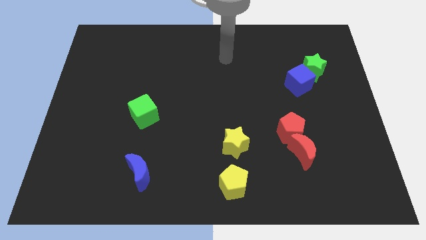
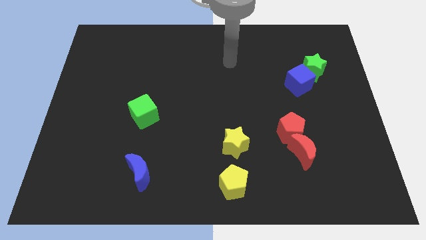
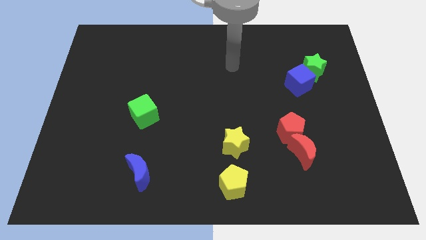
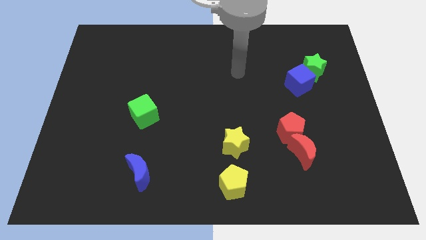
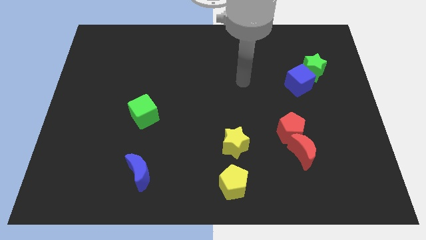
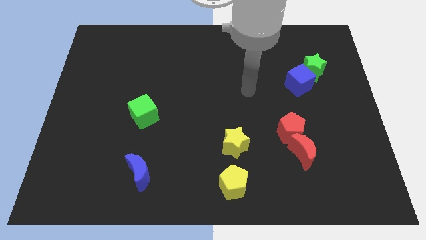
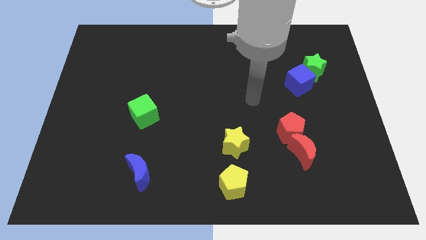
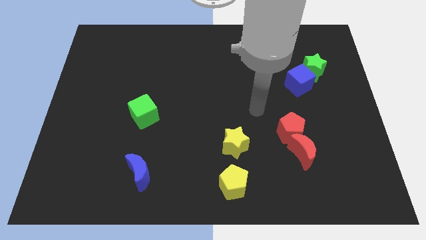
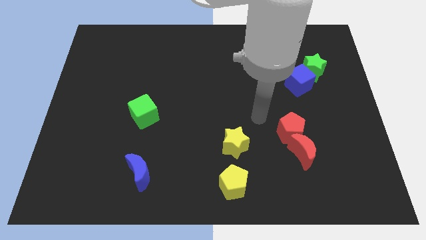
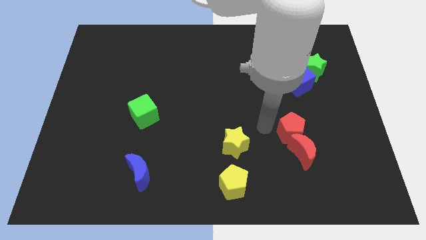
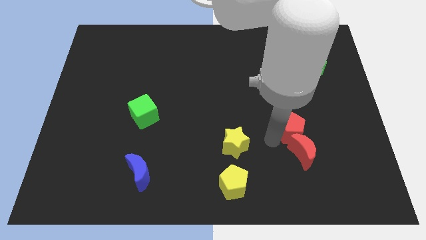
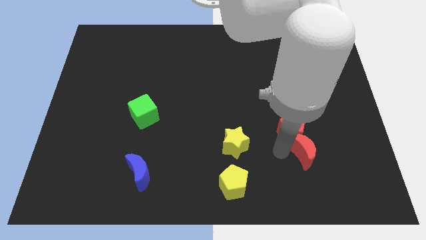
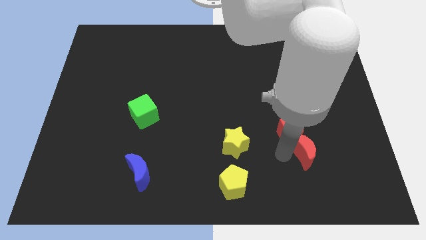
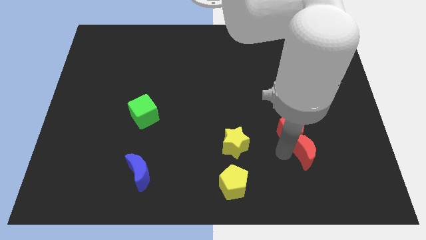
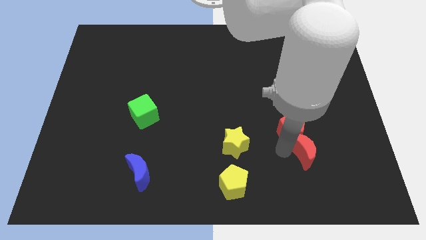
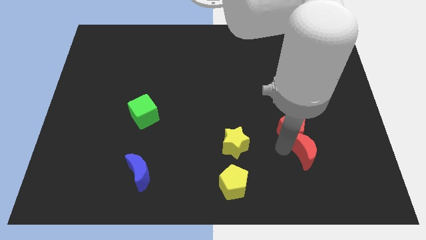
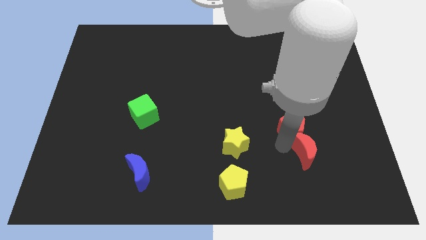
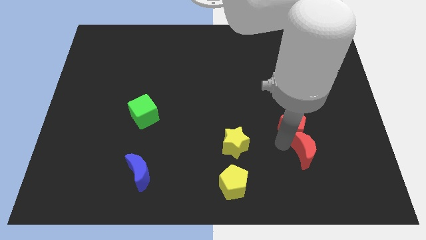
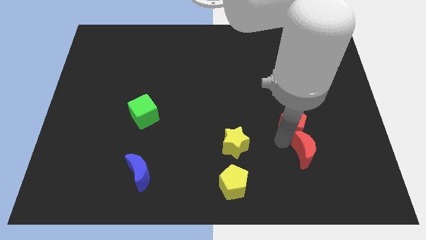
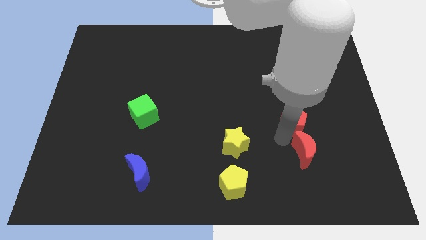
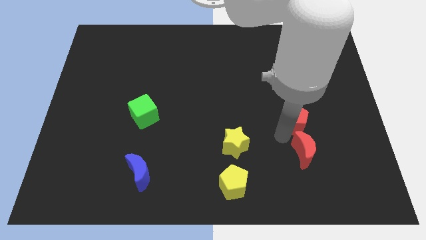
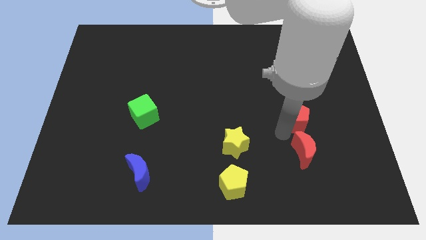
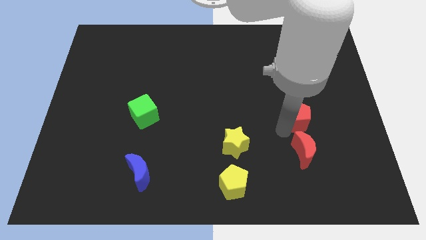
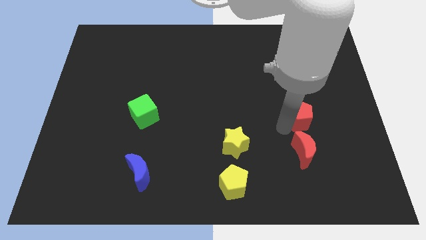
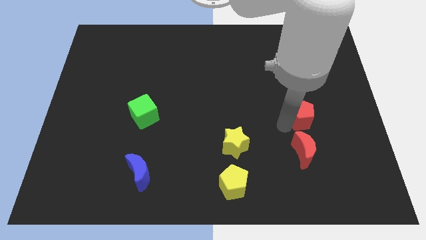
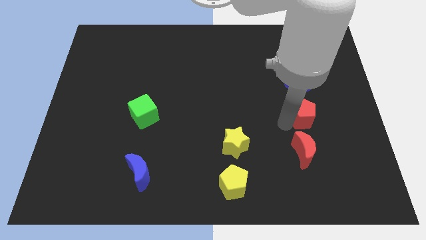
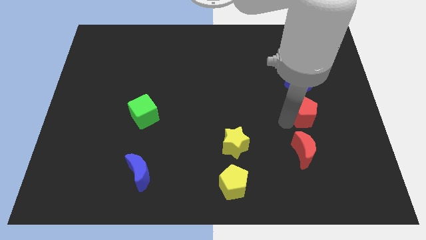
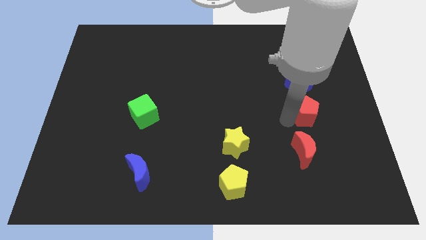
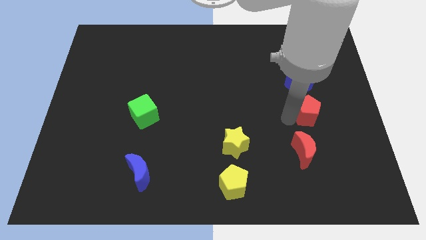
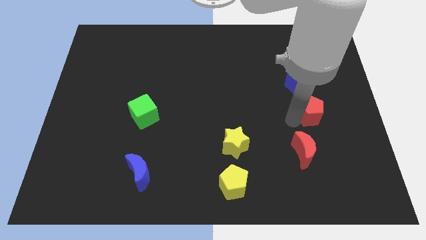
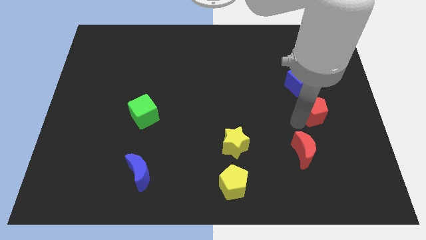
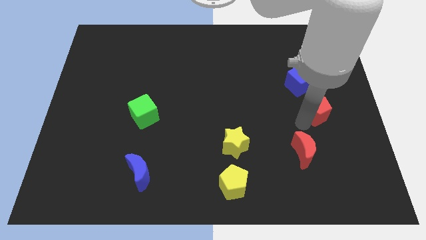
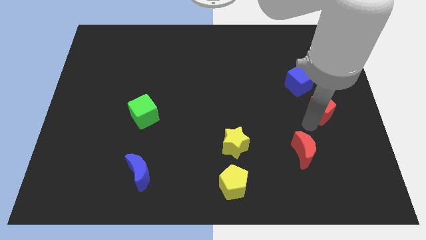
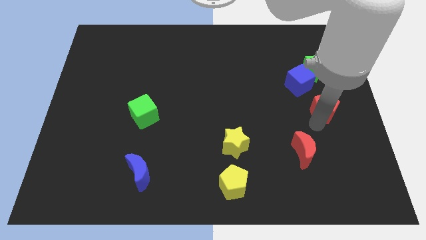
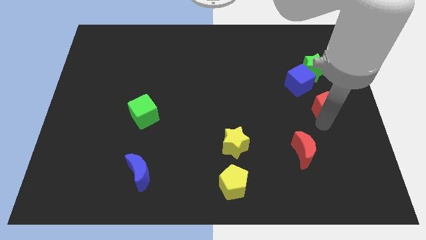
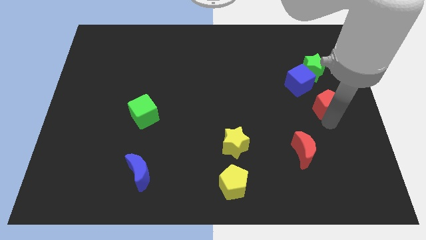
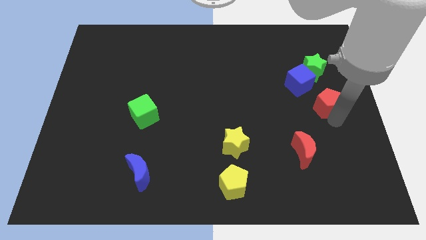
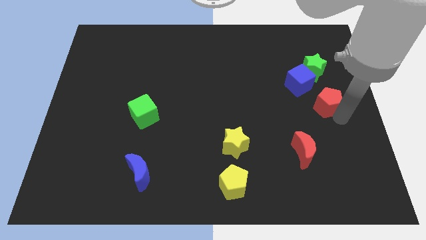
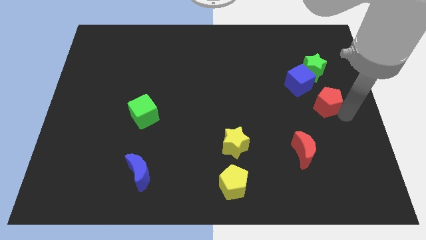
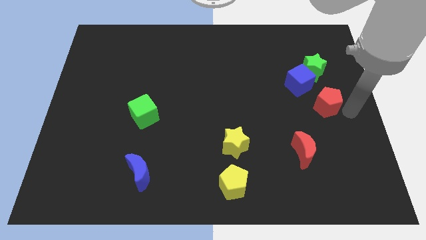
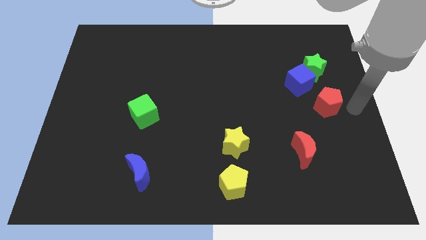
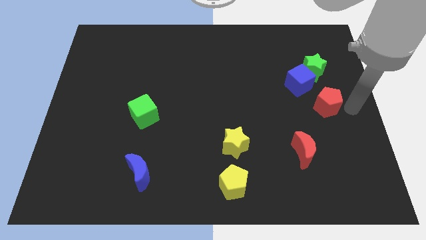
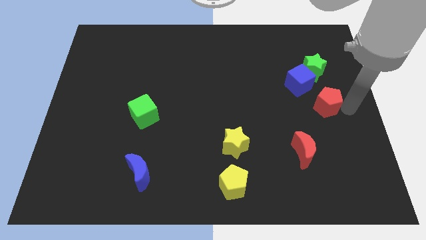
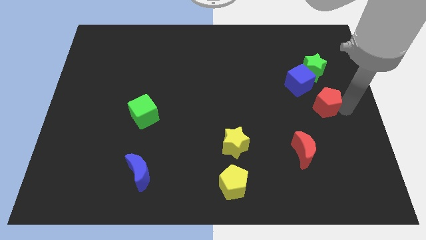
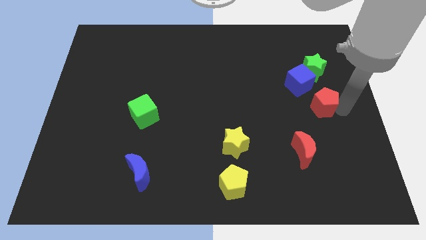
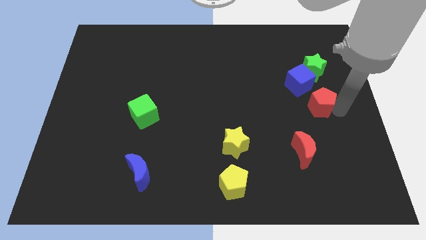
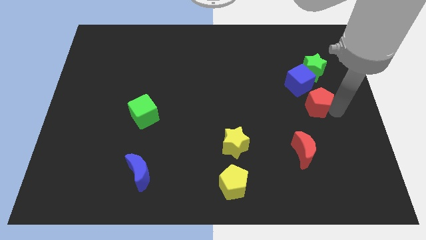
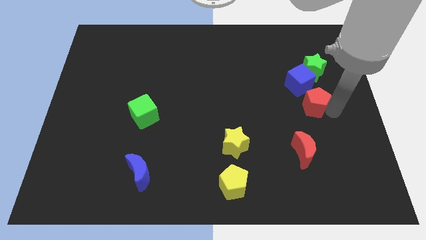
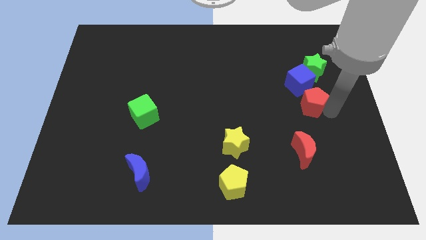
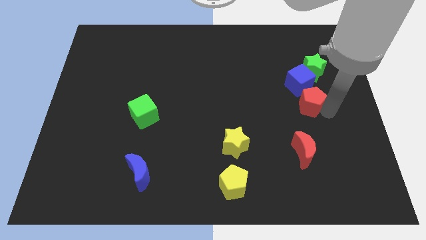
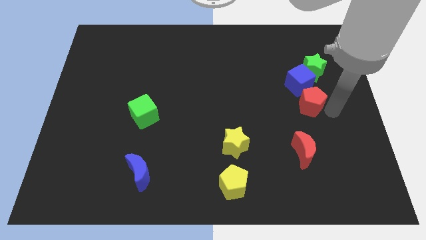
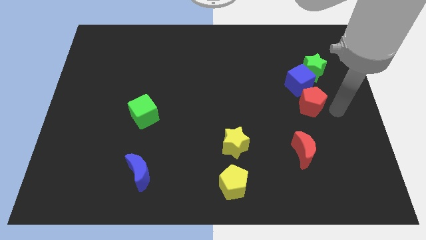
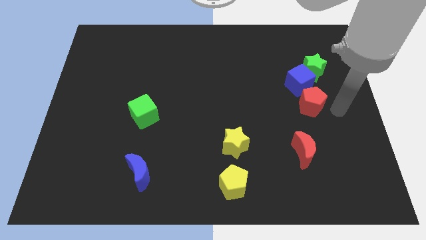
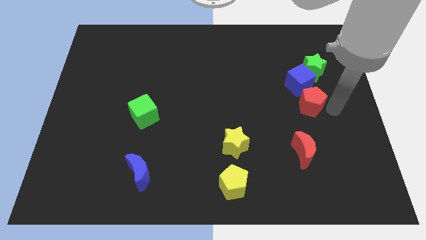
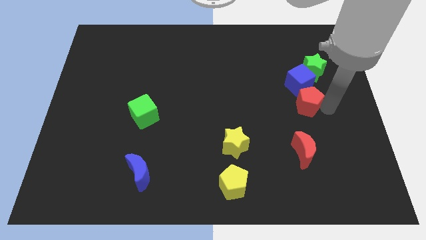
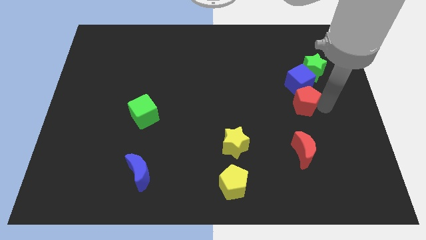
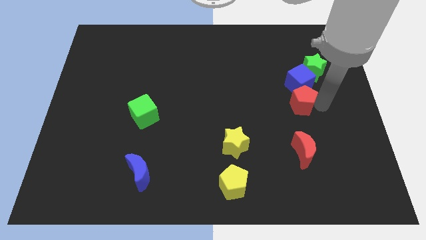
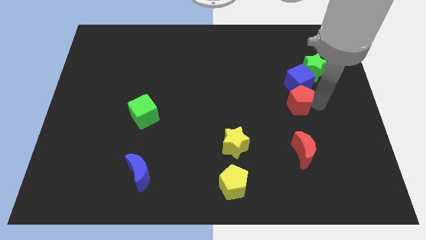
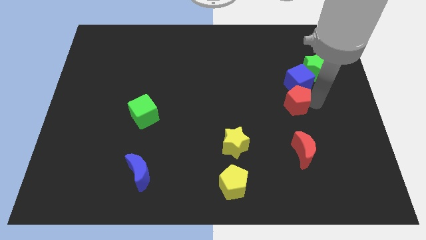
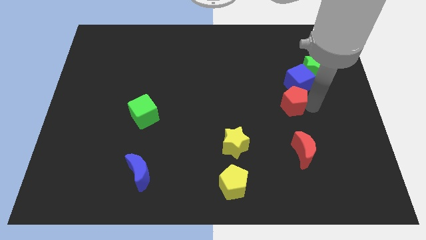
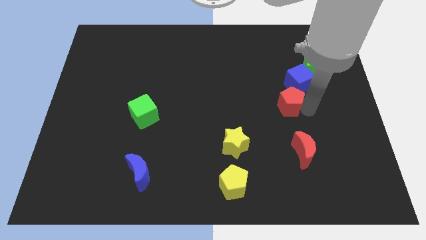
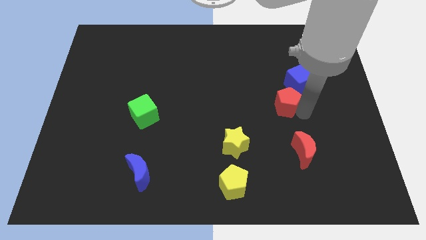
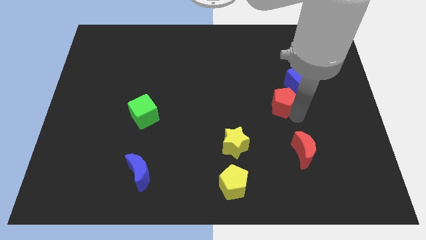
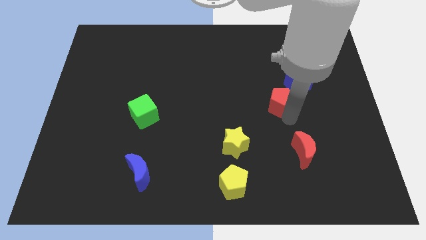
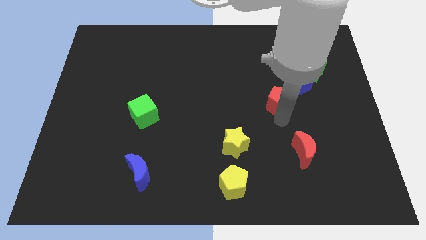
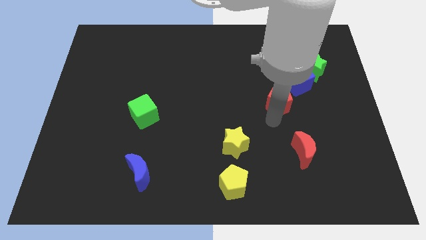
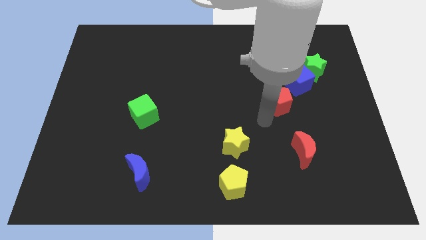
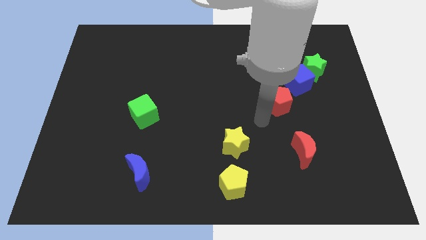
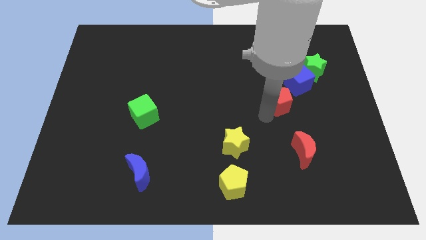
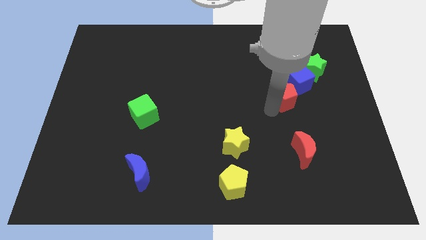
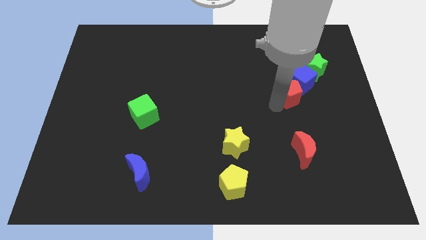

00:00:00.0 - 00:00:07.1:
push the red pentagon next to the blue cube

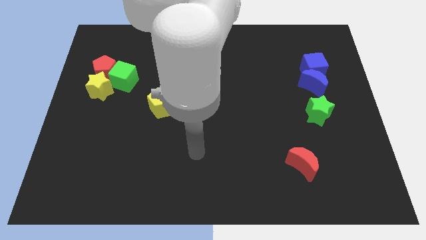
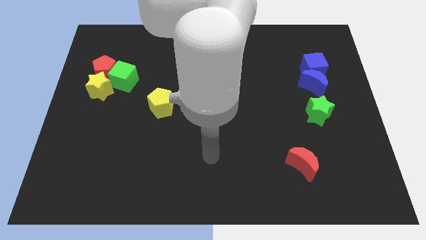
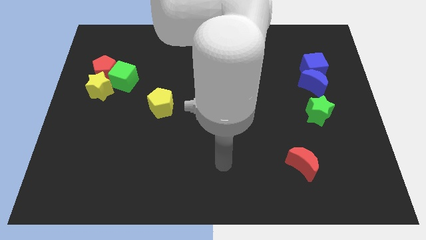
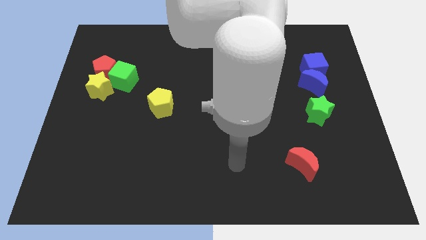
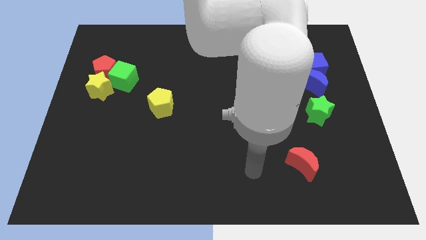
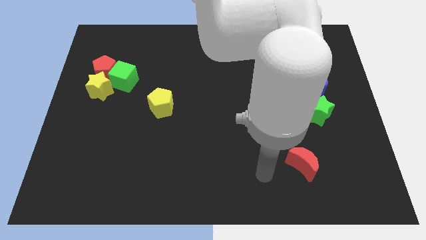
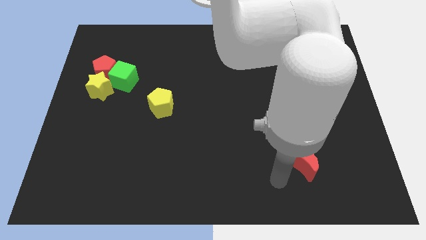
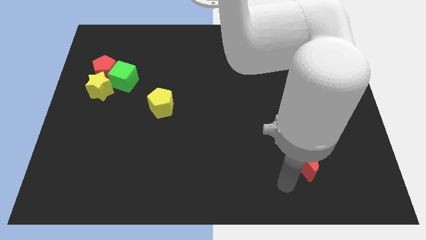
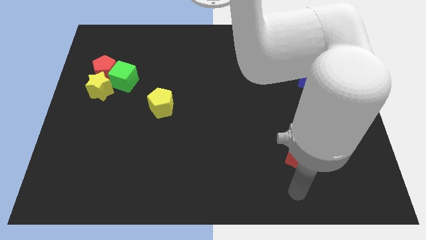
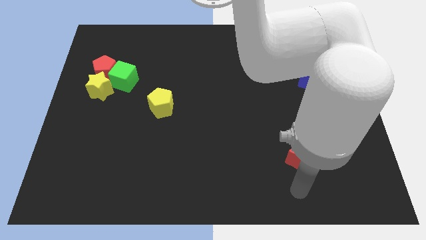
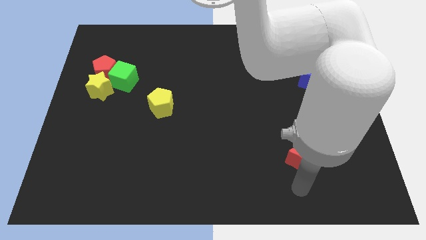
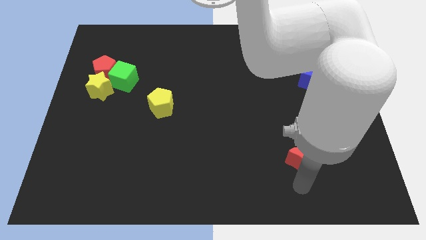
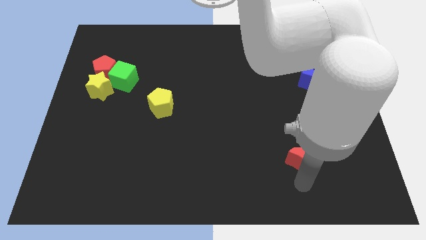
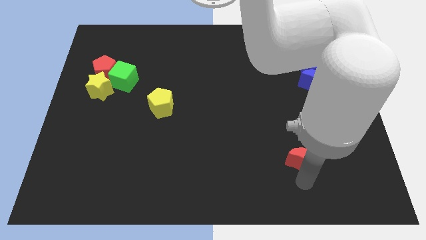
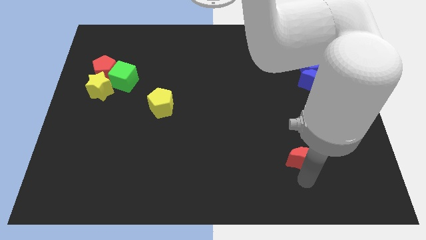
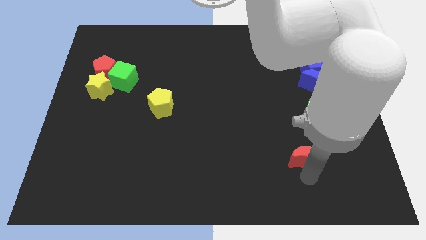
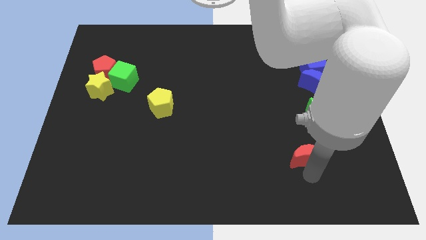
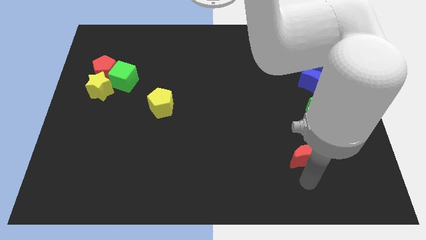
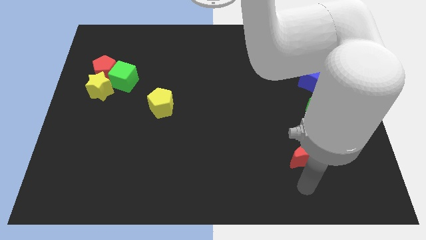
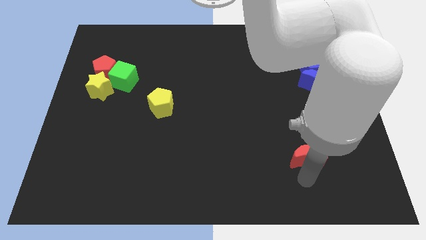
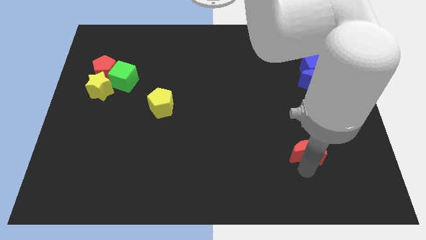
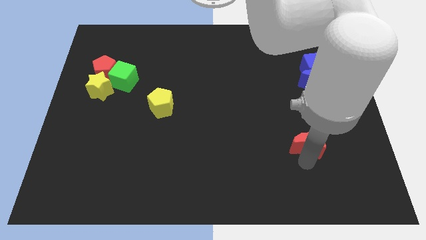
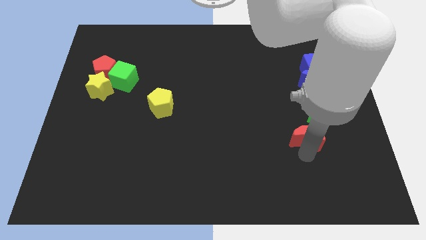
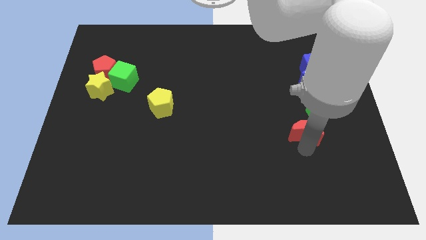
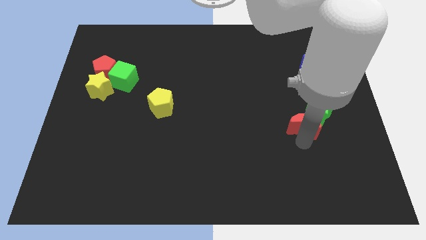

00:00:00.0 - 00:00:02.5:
slide the red moon to the green star
